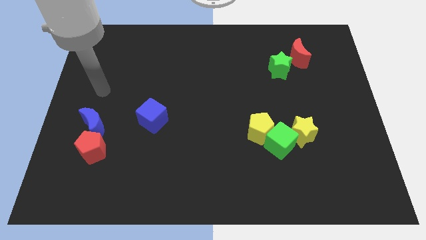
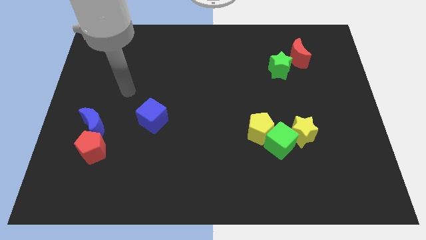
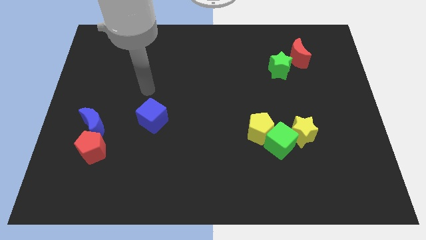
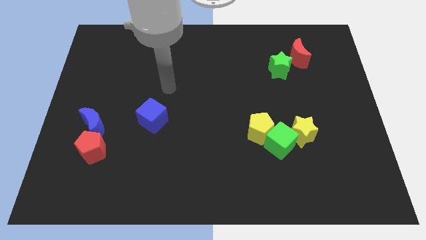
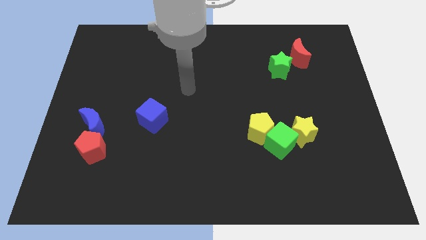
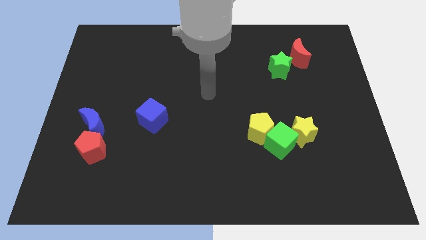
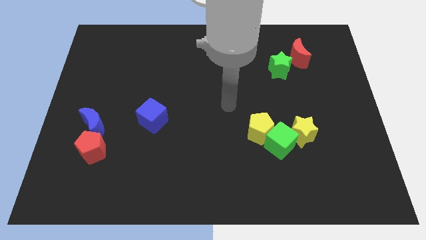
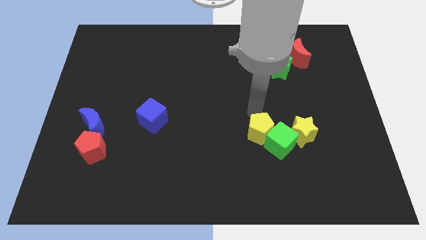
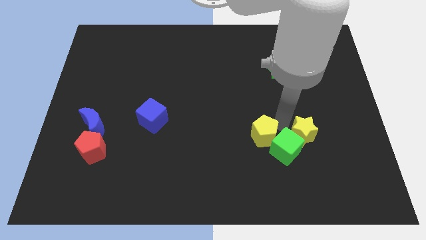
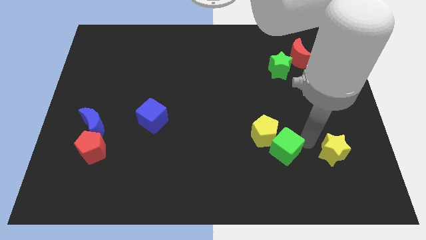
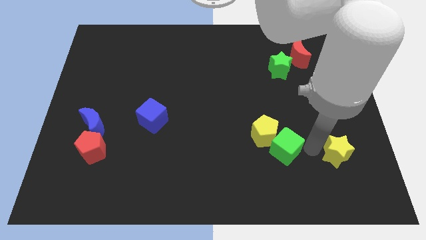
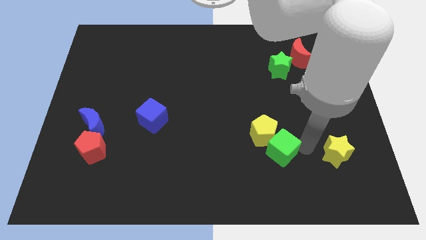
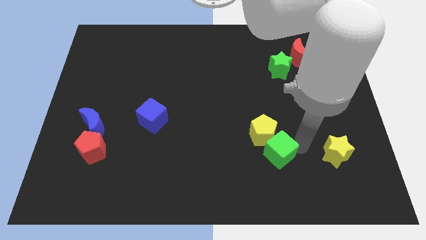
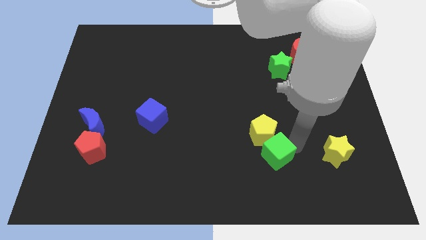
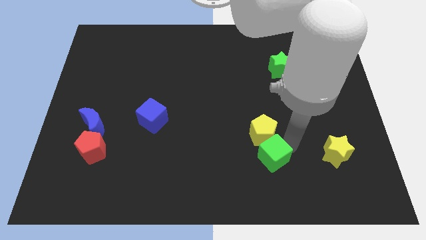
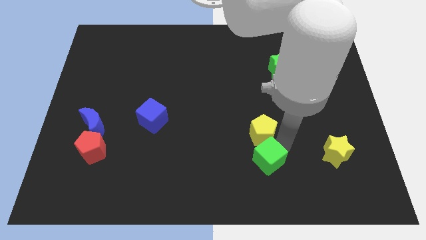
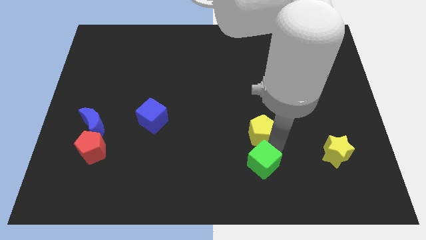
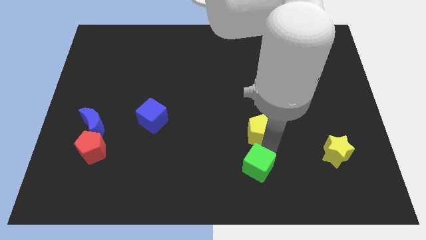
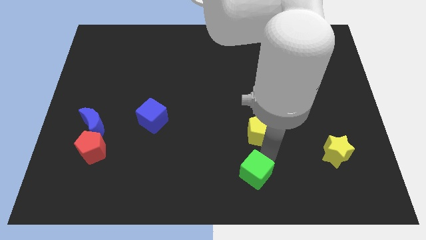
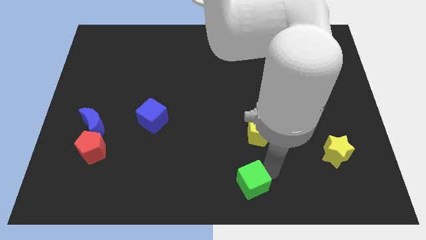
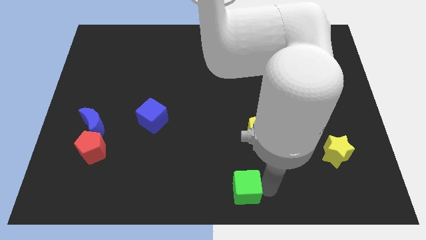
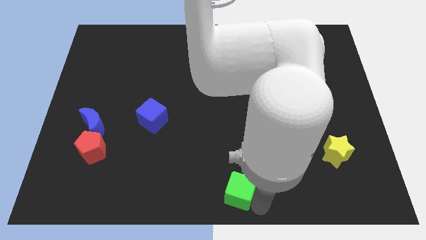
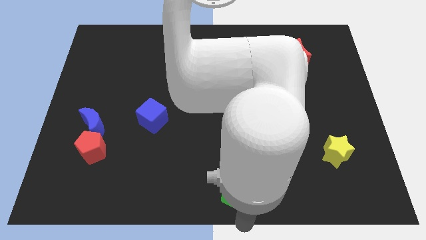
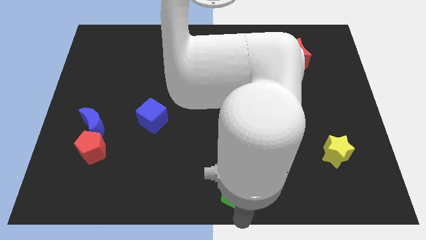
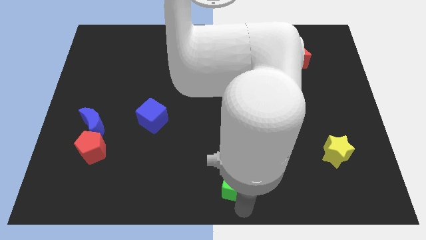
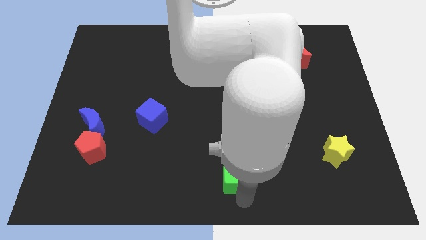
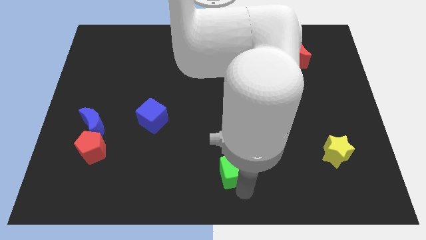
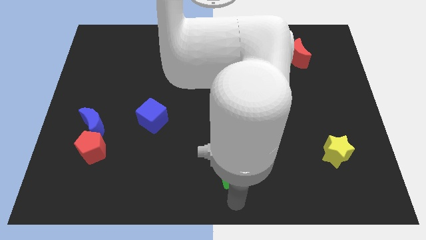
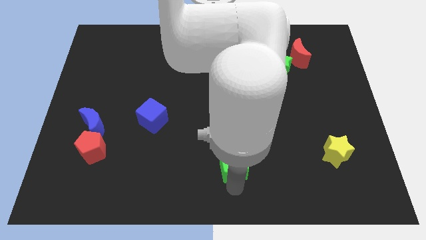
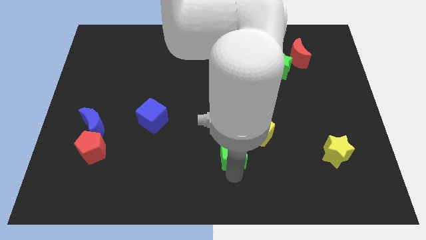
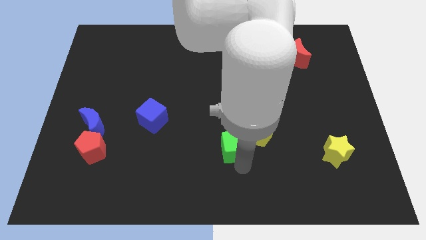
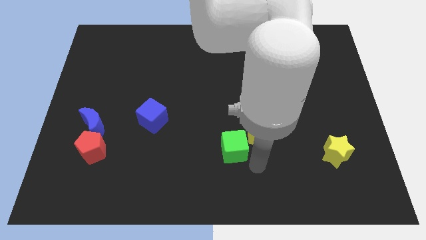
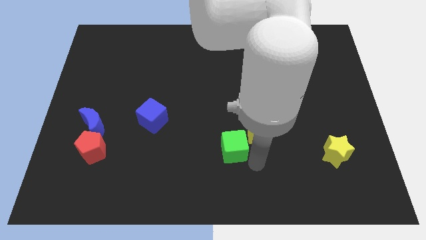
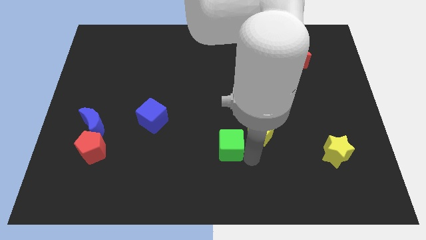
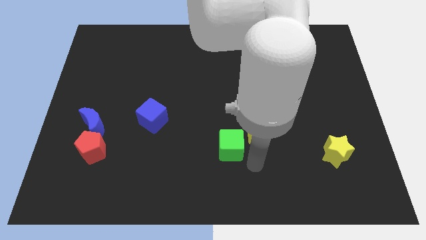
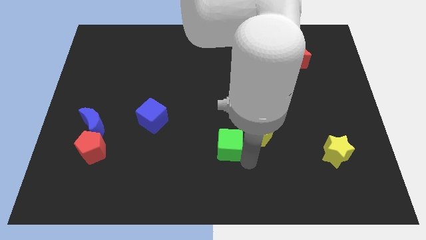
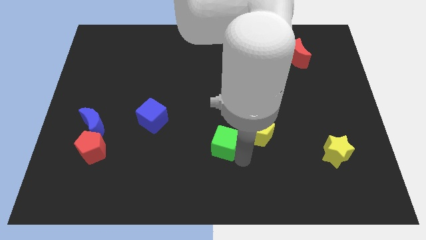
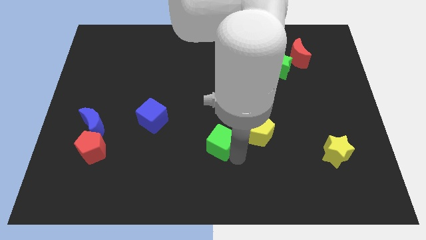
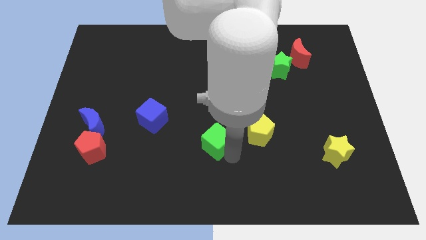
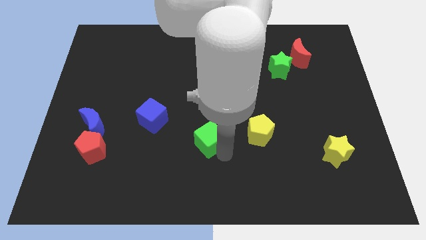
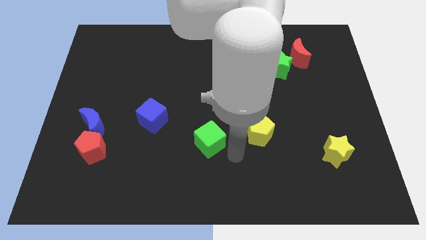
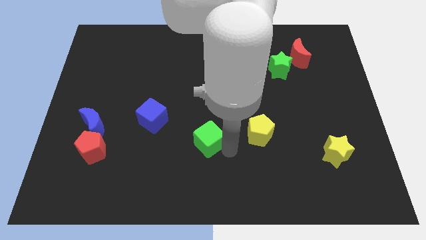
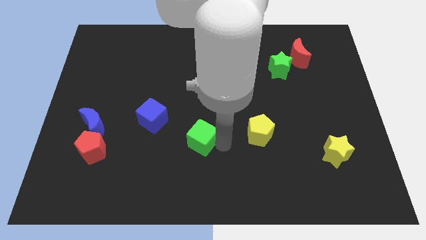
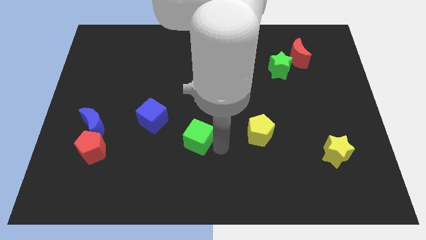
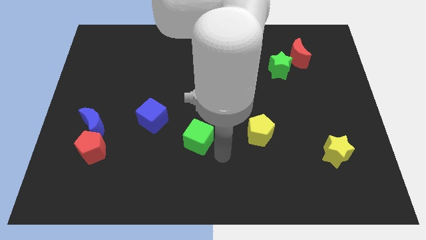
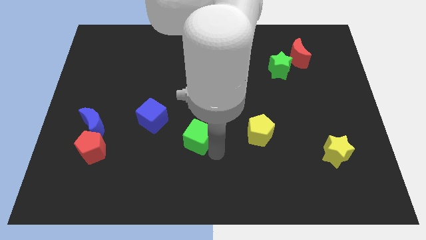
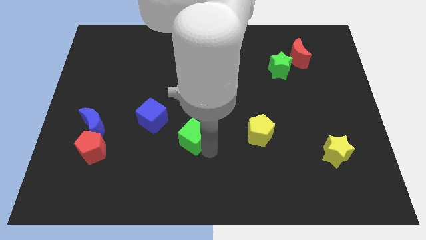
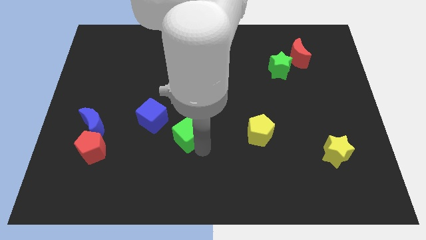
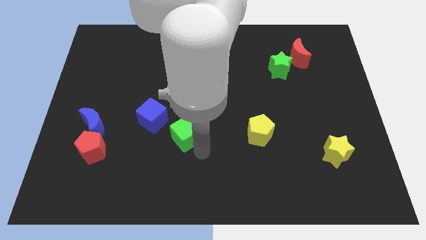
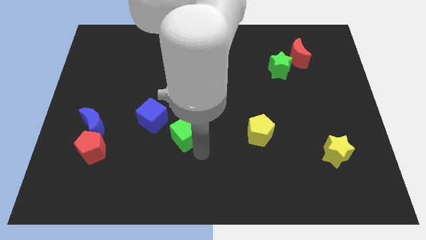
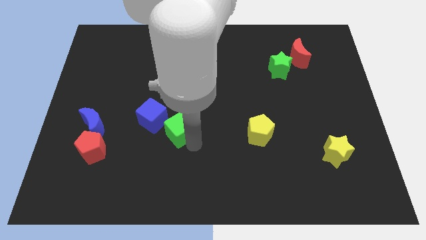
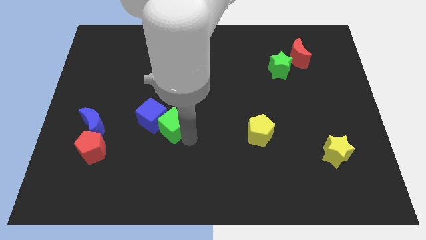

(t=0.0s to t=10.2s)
slide the green cube next to the blue cube

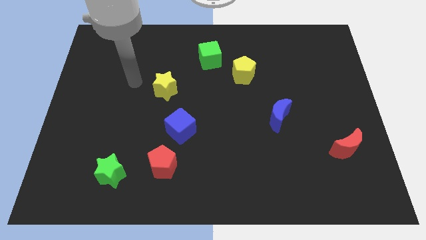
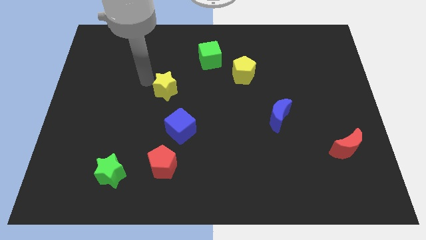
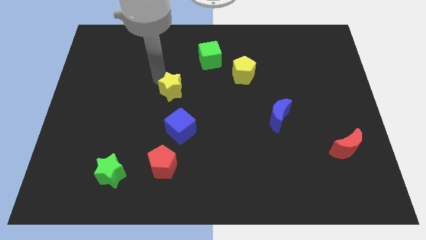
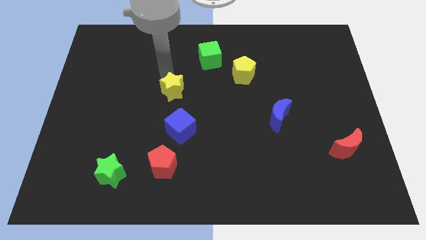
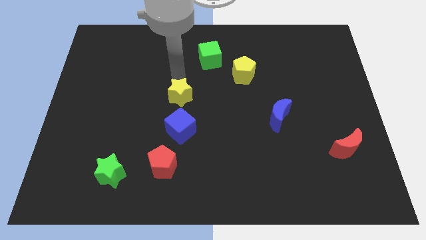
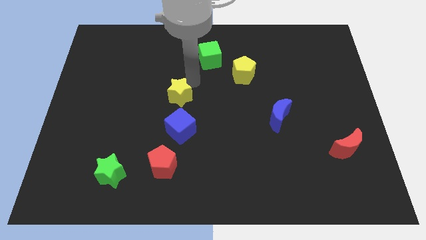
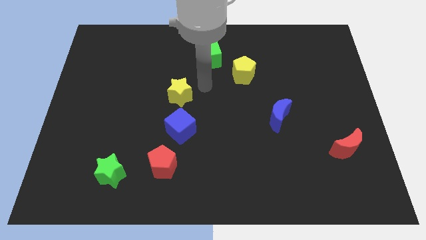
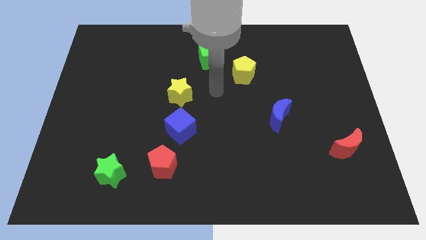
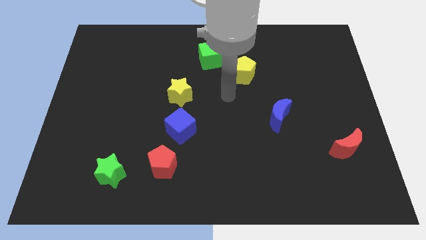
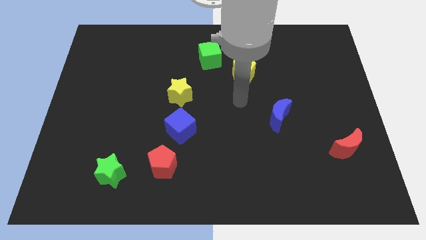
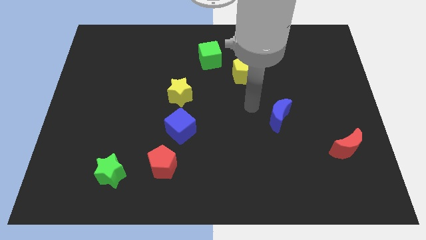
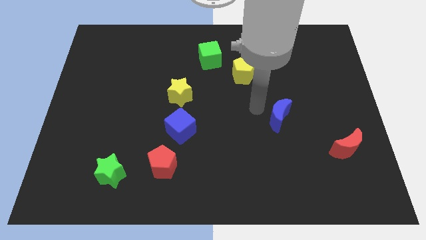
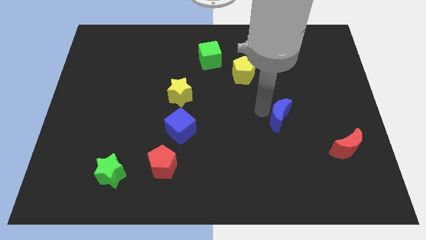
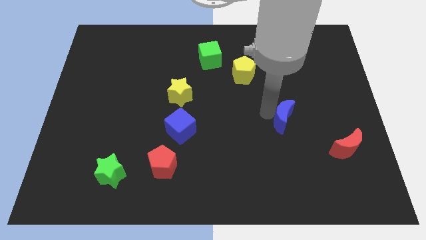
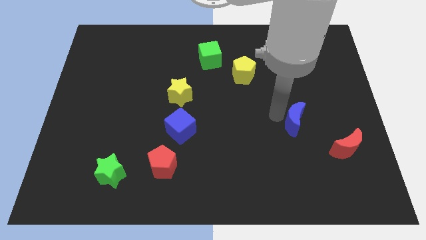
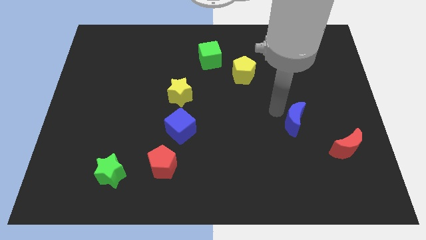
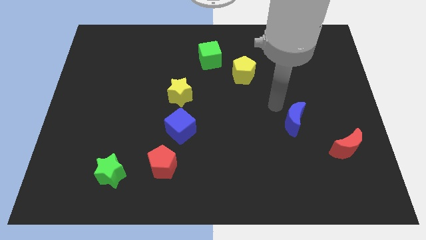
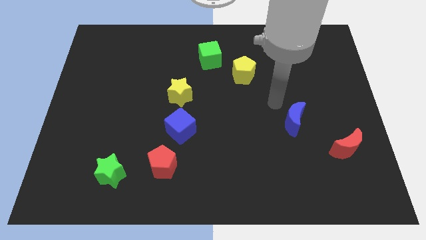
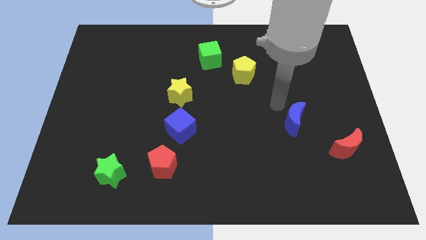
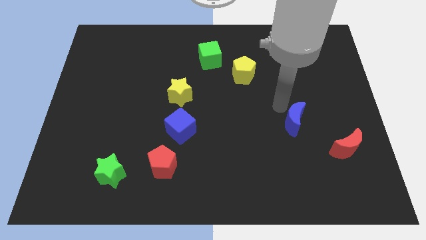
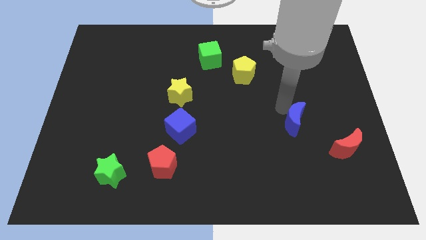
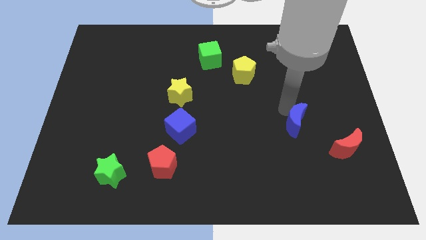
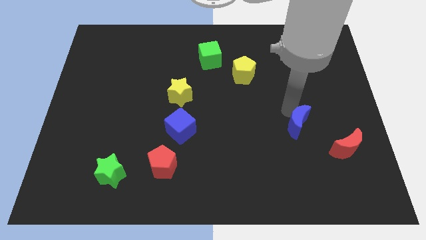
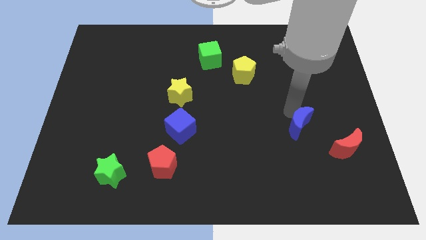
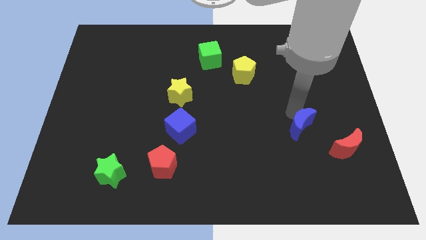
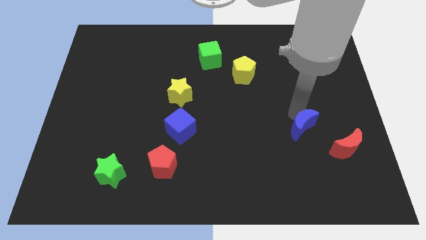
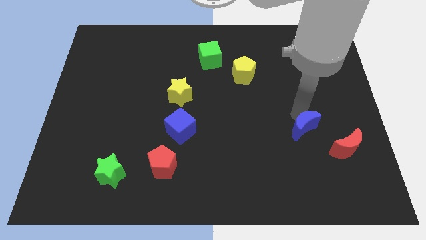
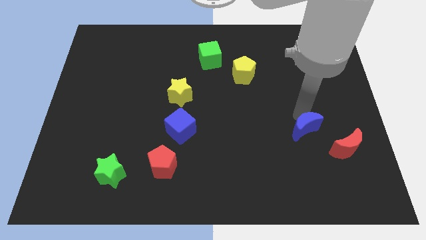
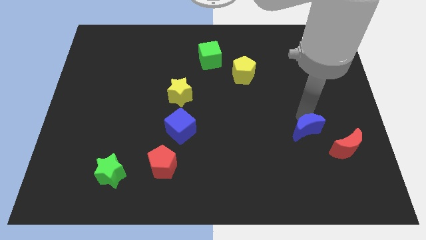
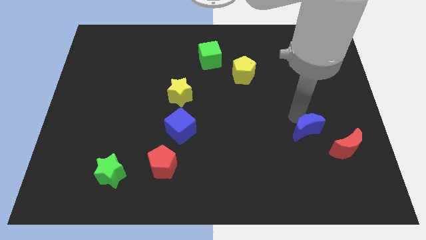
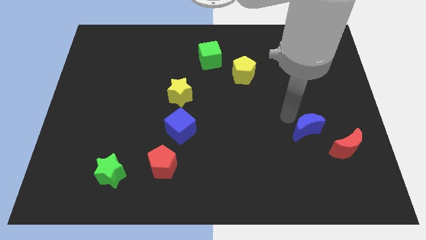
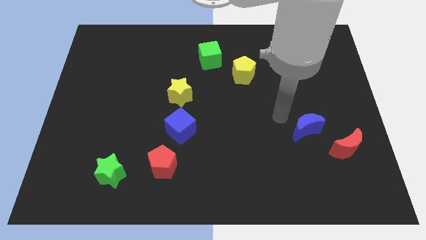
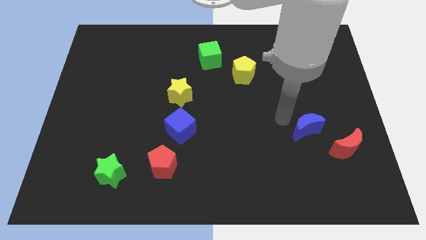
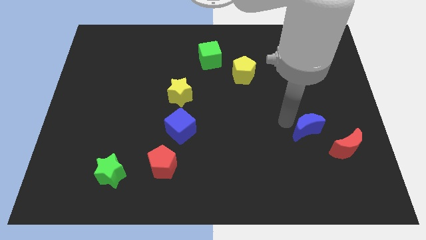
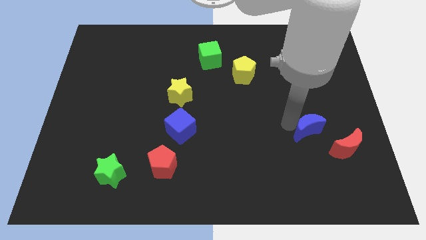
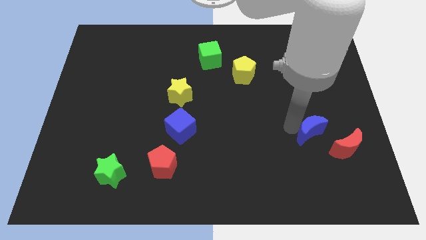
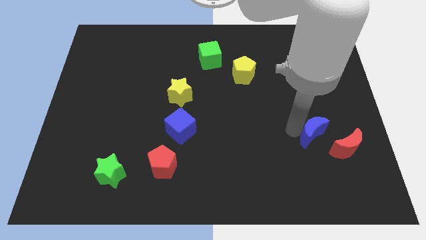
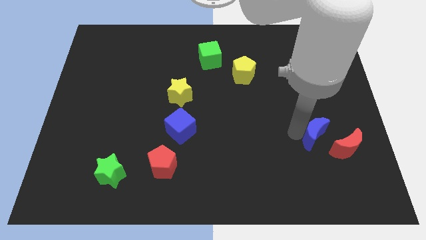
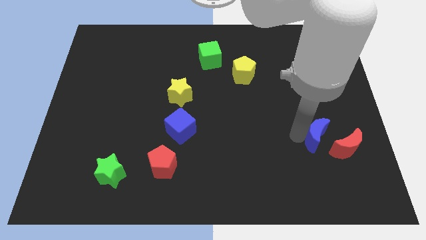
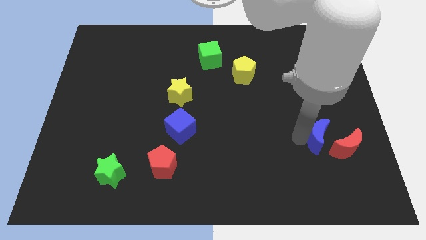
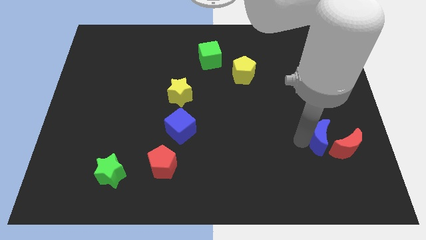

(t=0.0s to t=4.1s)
move the blue moon close to the red moon
